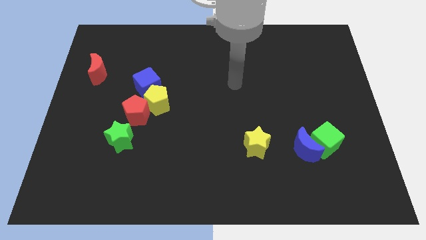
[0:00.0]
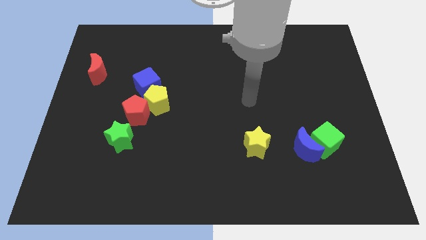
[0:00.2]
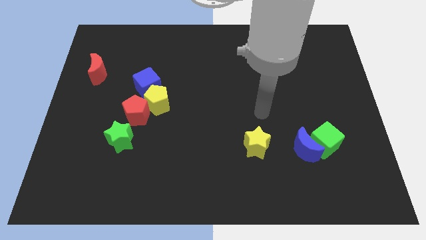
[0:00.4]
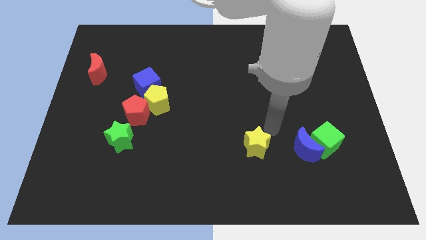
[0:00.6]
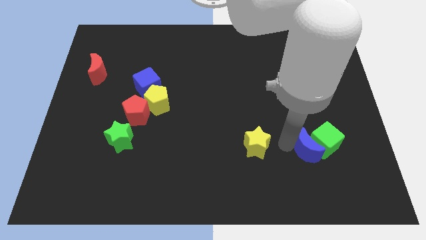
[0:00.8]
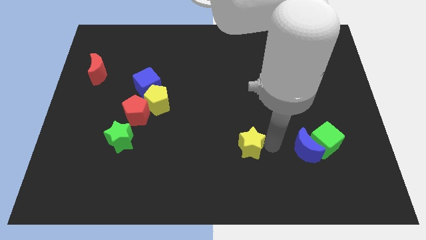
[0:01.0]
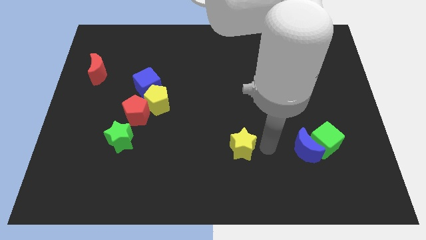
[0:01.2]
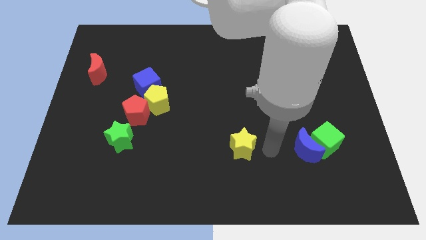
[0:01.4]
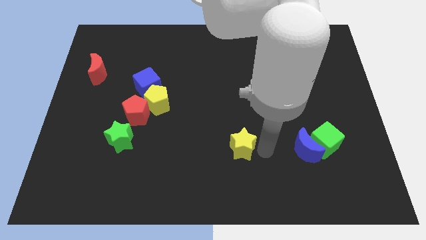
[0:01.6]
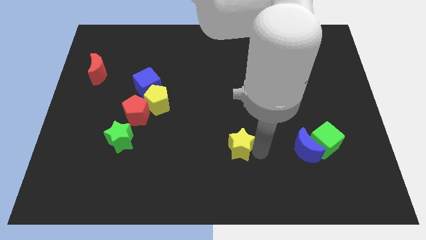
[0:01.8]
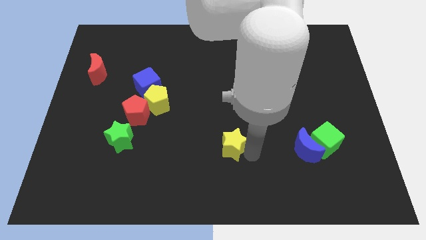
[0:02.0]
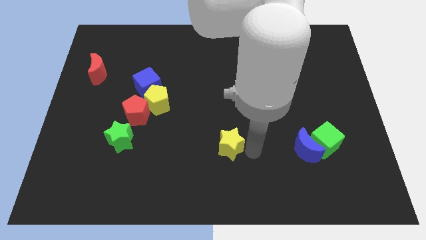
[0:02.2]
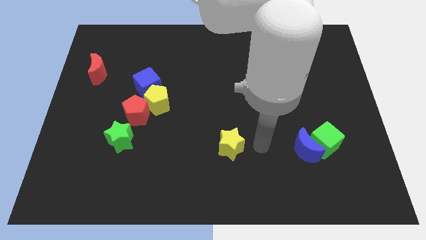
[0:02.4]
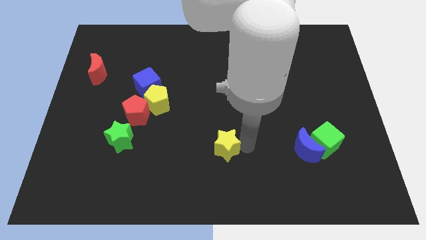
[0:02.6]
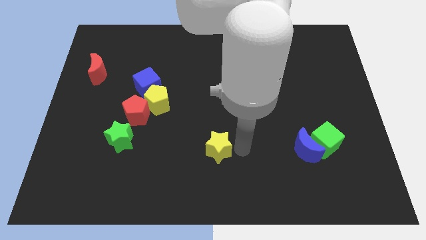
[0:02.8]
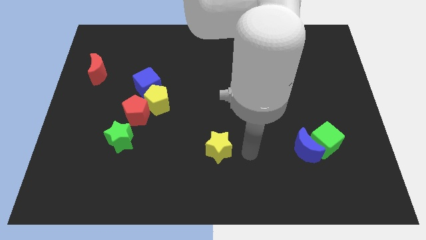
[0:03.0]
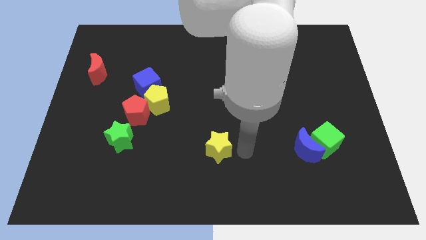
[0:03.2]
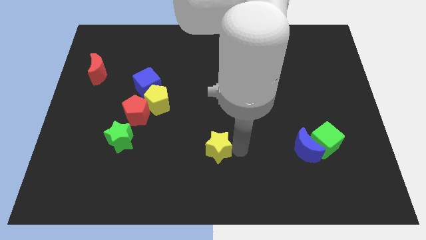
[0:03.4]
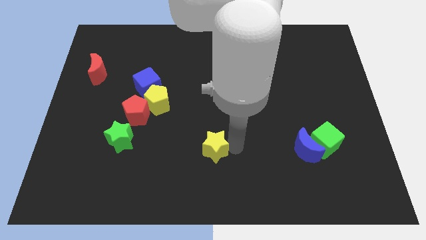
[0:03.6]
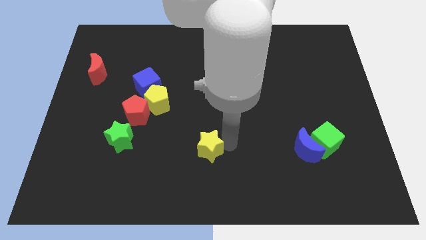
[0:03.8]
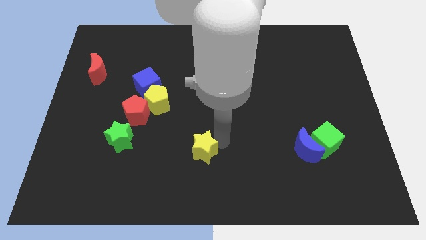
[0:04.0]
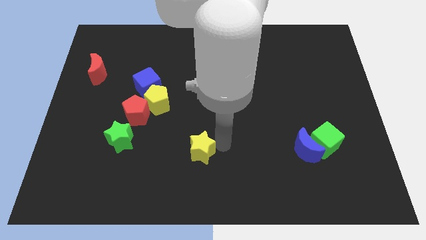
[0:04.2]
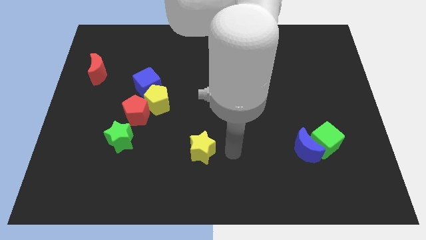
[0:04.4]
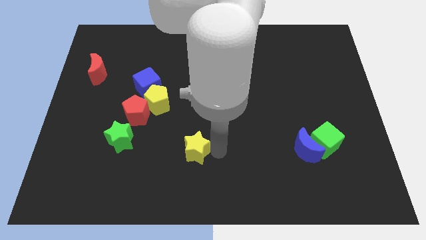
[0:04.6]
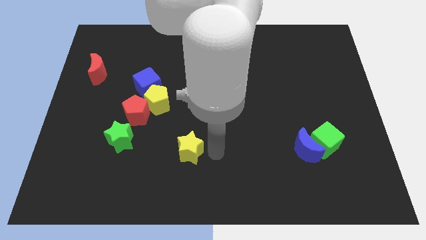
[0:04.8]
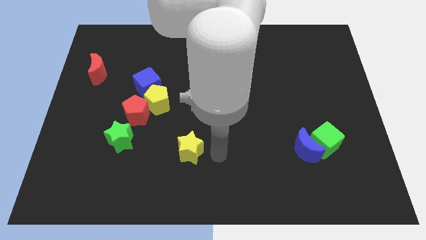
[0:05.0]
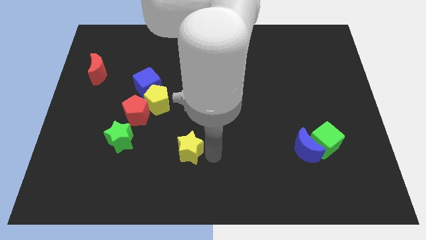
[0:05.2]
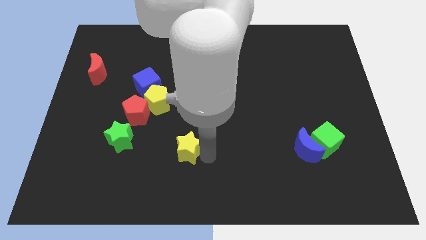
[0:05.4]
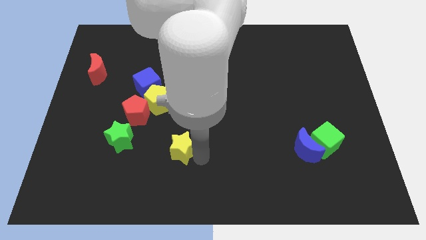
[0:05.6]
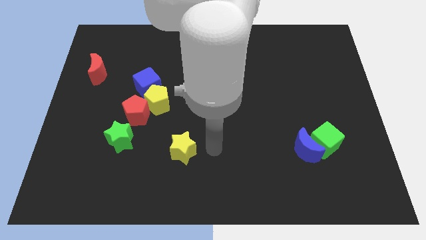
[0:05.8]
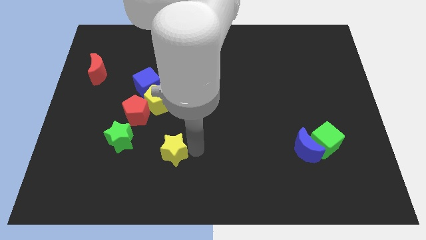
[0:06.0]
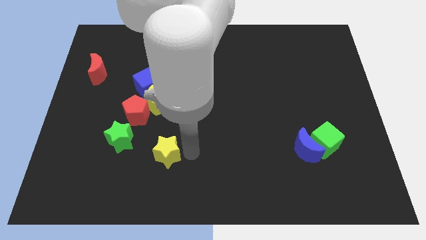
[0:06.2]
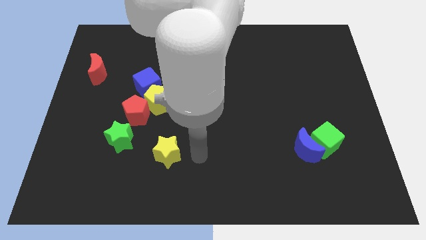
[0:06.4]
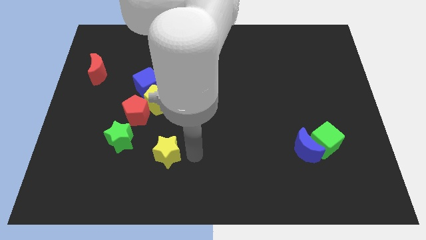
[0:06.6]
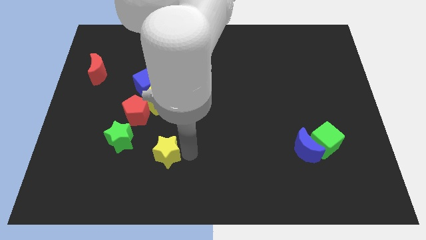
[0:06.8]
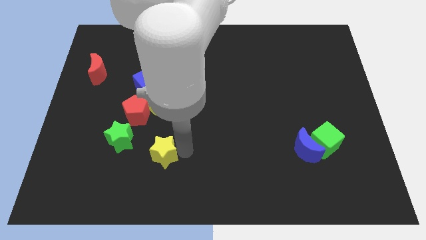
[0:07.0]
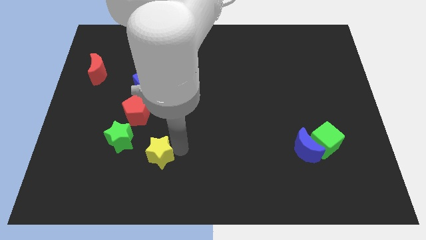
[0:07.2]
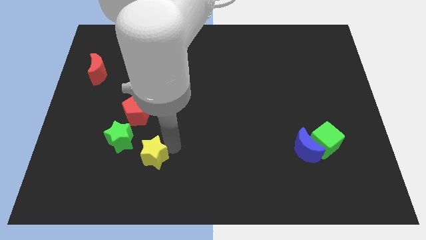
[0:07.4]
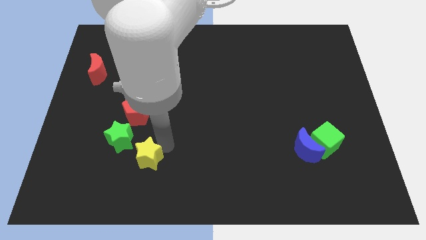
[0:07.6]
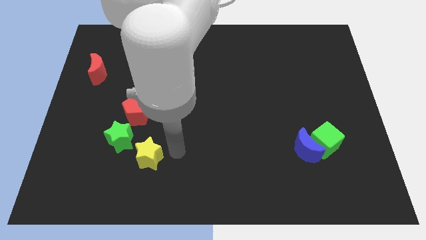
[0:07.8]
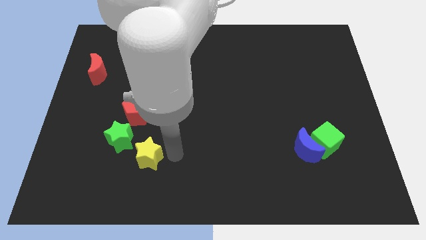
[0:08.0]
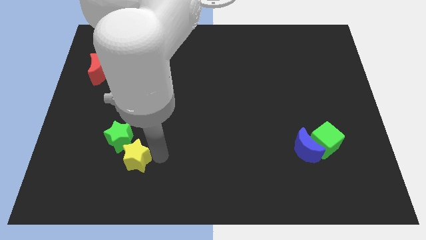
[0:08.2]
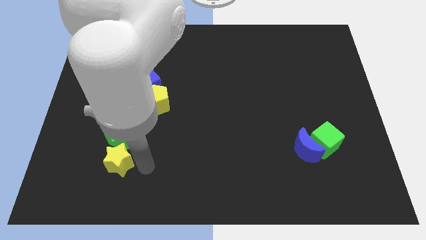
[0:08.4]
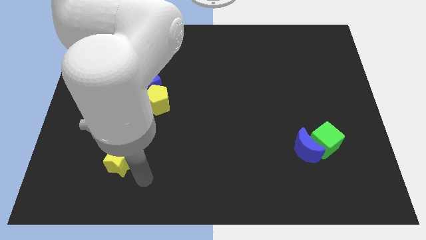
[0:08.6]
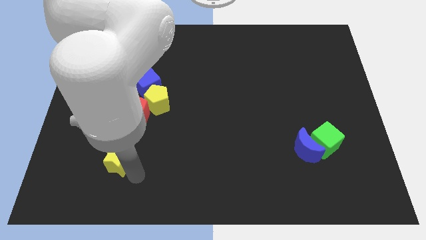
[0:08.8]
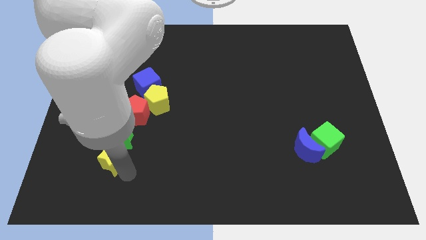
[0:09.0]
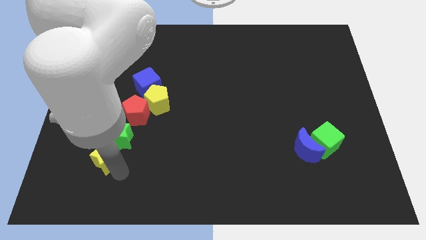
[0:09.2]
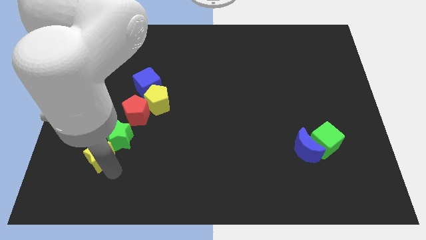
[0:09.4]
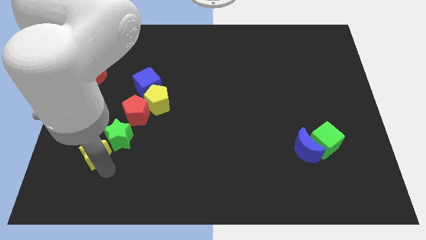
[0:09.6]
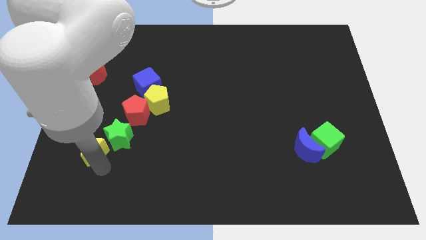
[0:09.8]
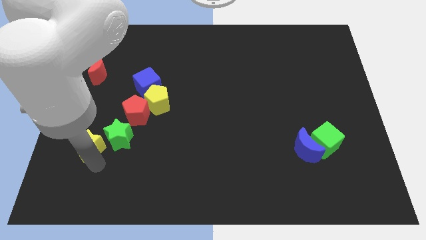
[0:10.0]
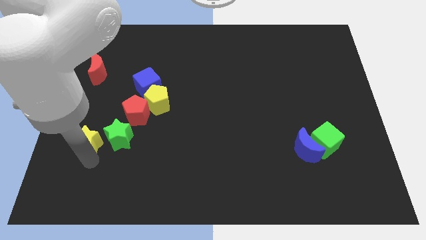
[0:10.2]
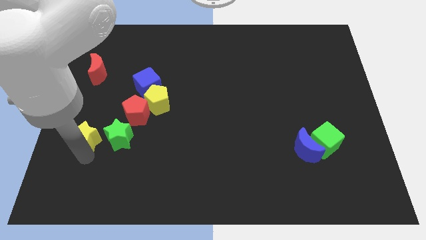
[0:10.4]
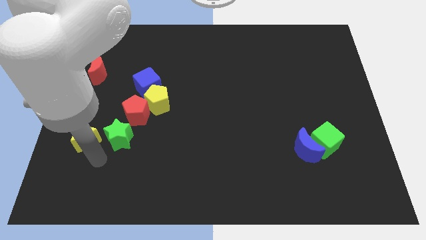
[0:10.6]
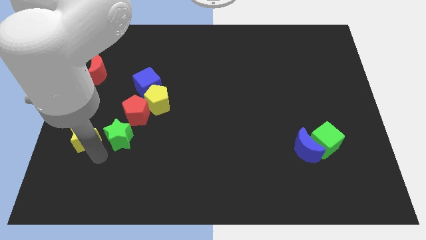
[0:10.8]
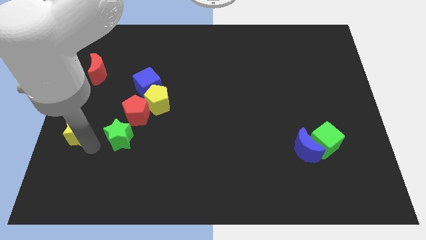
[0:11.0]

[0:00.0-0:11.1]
push the yellow star to the left side of the board
